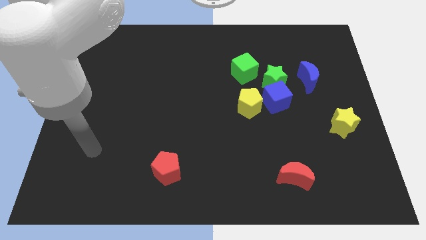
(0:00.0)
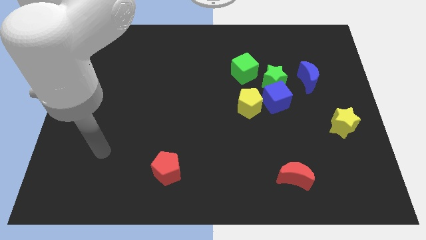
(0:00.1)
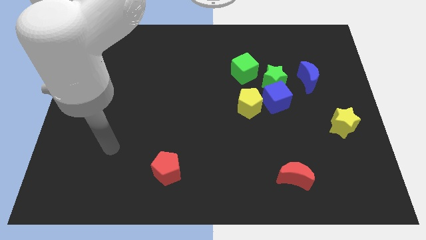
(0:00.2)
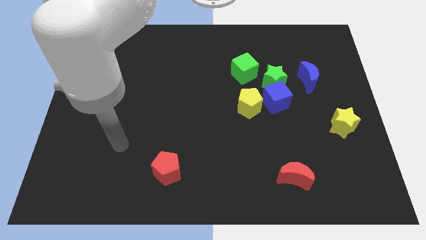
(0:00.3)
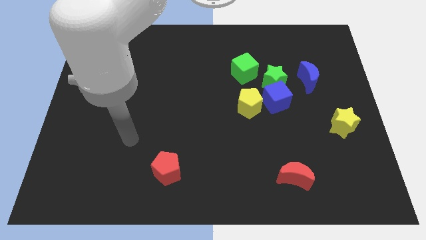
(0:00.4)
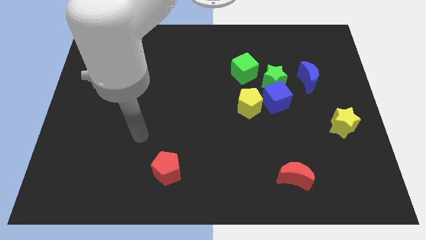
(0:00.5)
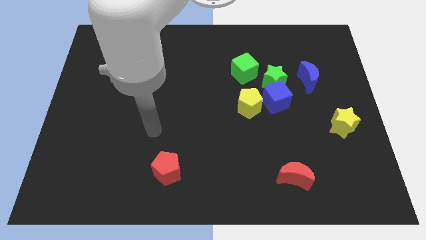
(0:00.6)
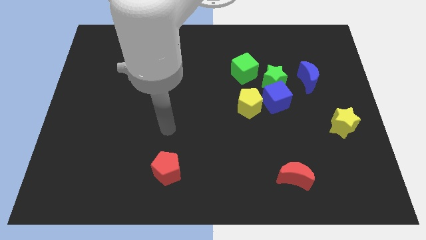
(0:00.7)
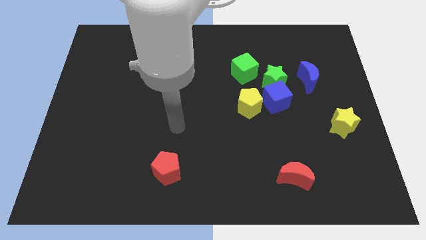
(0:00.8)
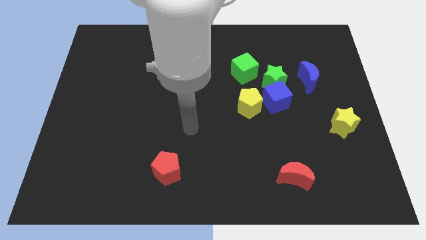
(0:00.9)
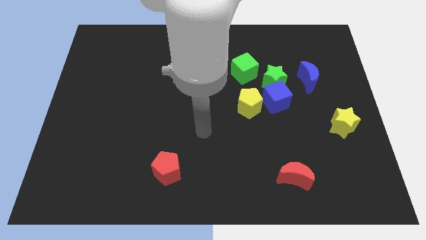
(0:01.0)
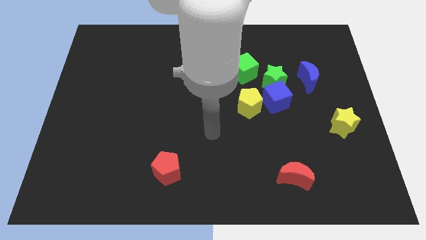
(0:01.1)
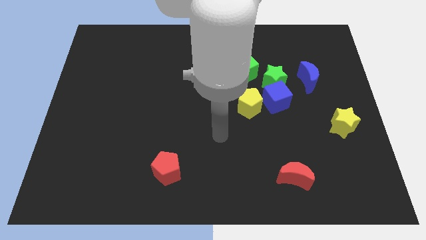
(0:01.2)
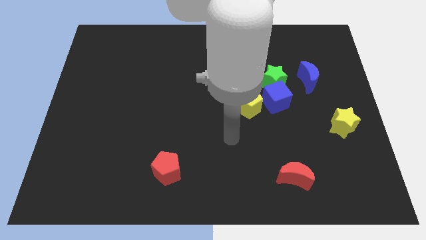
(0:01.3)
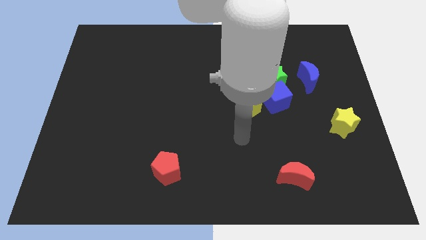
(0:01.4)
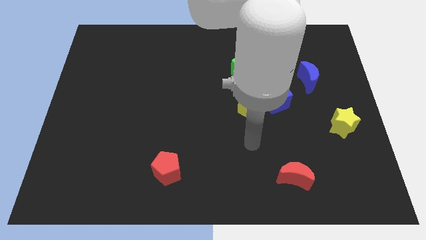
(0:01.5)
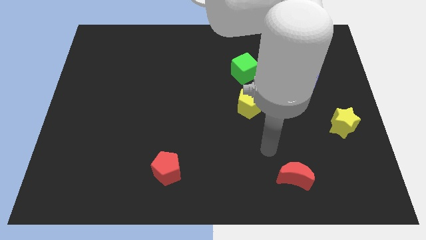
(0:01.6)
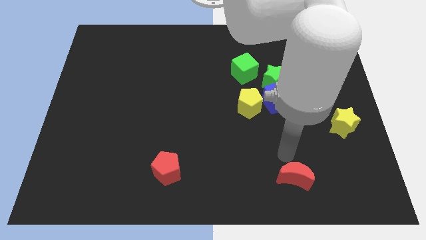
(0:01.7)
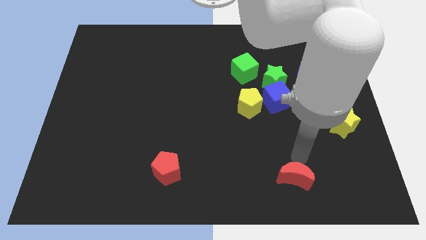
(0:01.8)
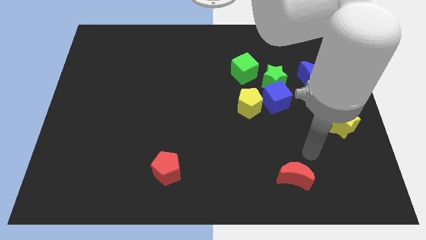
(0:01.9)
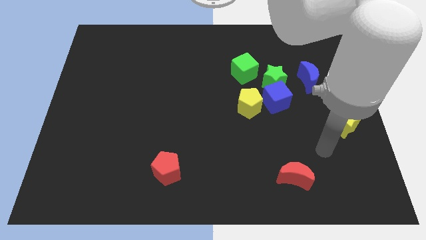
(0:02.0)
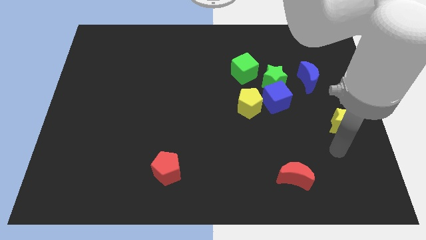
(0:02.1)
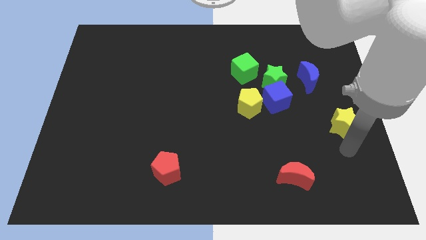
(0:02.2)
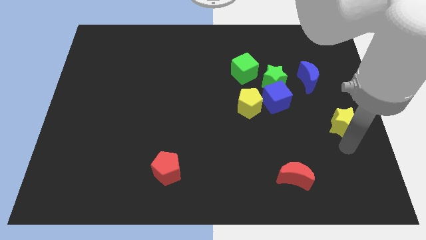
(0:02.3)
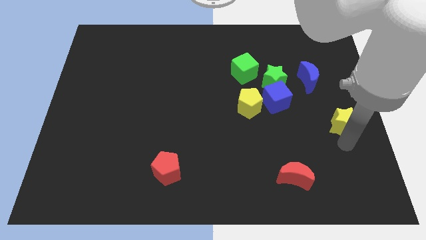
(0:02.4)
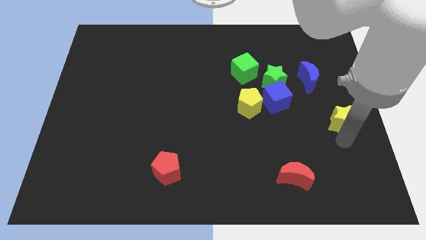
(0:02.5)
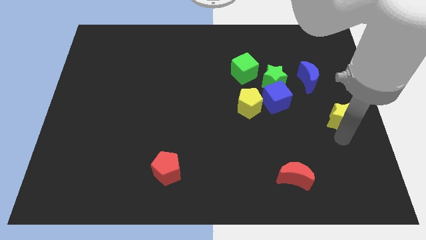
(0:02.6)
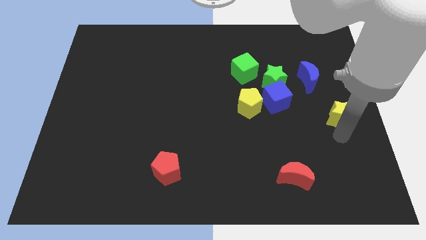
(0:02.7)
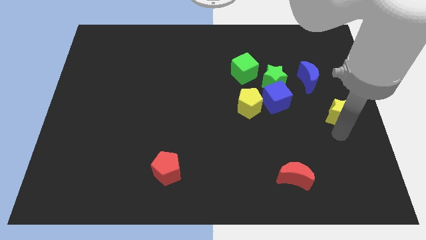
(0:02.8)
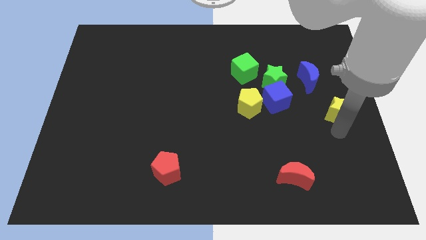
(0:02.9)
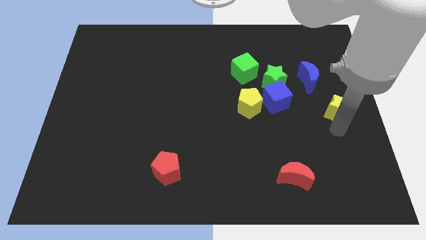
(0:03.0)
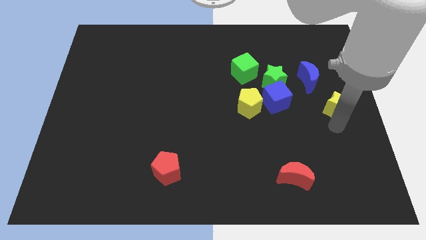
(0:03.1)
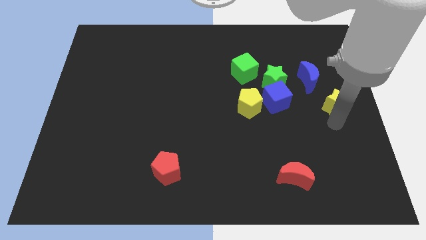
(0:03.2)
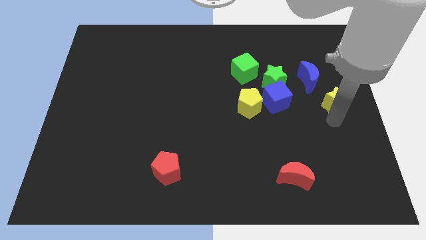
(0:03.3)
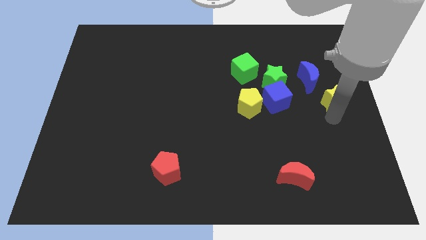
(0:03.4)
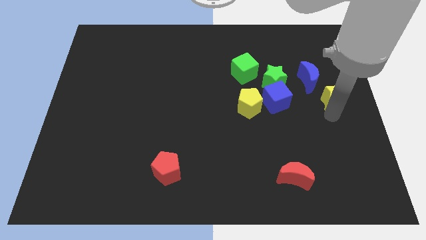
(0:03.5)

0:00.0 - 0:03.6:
slightly push the yellow star up

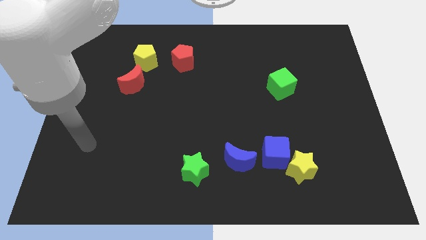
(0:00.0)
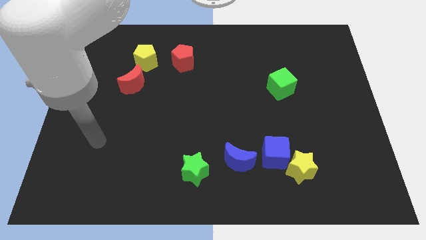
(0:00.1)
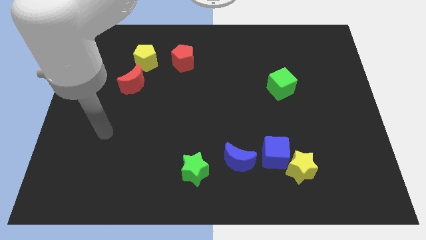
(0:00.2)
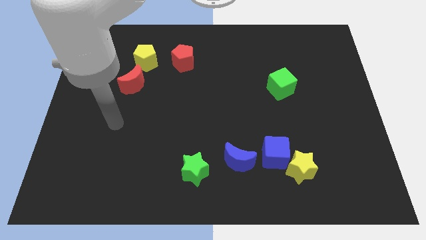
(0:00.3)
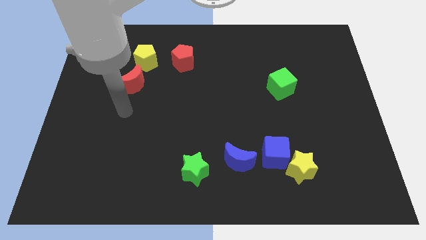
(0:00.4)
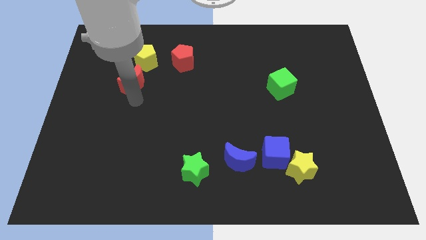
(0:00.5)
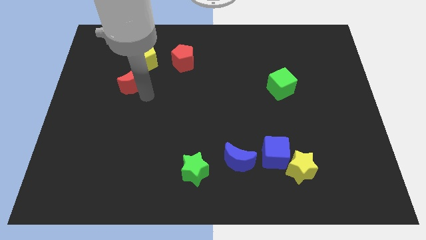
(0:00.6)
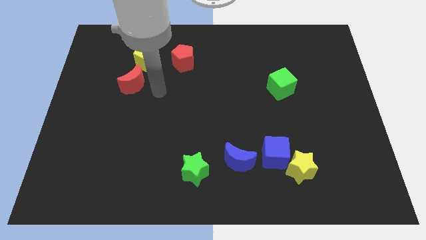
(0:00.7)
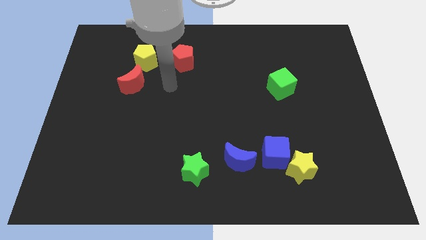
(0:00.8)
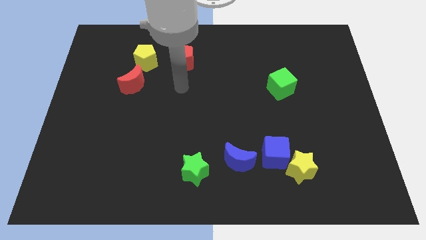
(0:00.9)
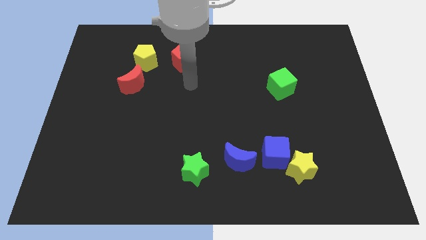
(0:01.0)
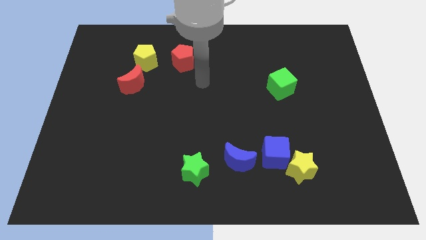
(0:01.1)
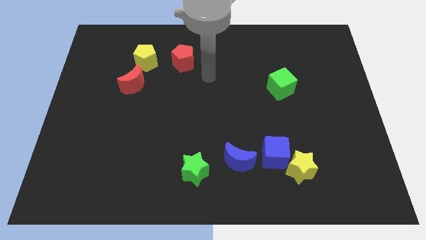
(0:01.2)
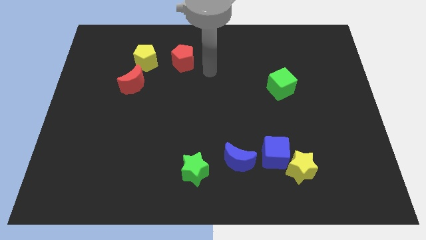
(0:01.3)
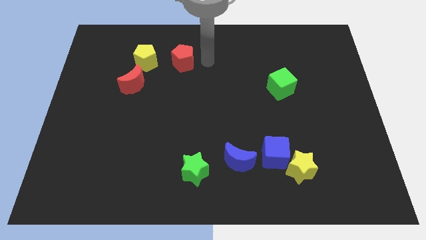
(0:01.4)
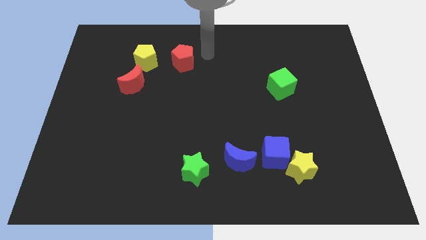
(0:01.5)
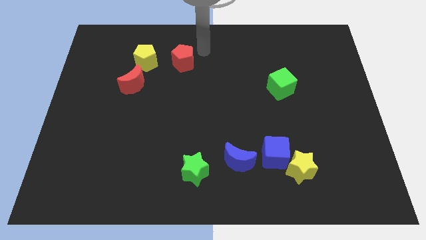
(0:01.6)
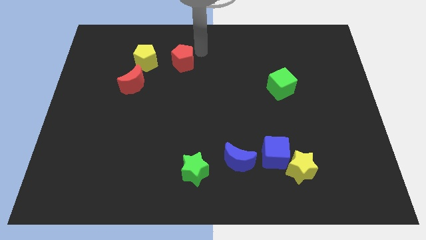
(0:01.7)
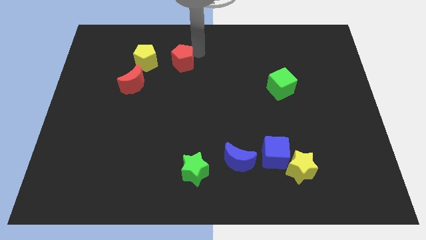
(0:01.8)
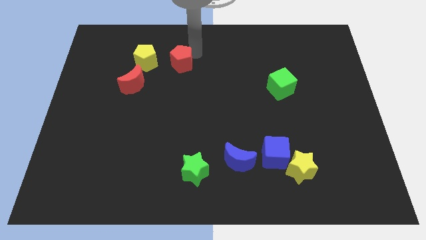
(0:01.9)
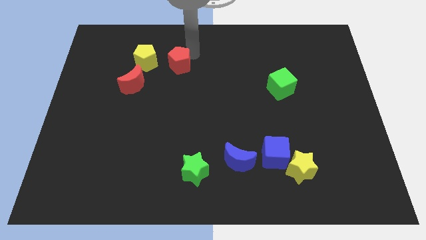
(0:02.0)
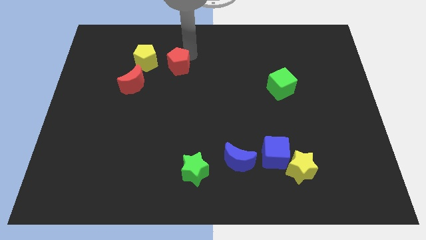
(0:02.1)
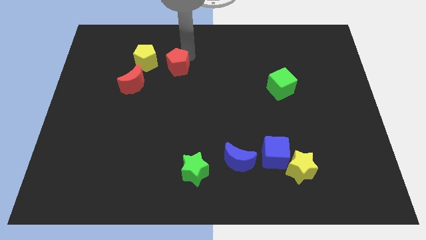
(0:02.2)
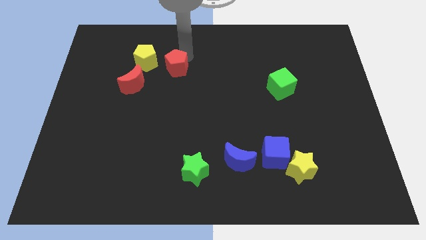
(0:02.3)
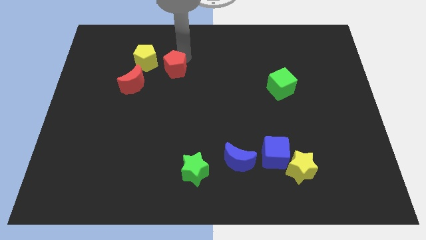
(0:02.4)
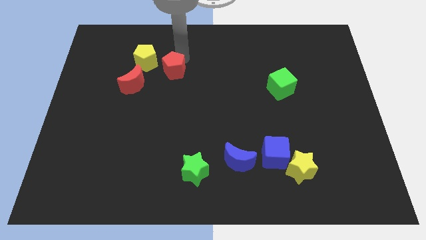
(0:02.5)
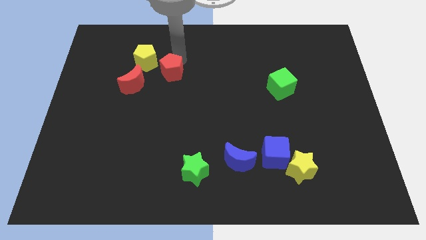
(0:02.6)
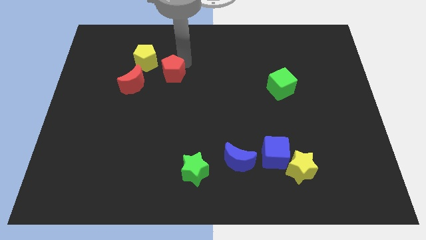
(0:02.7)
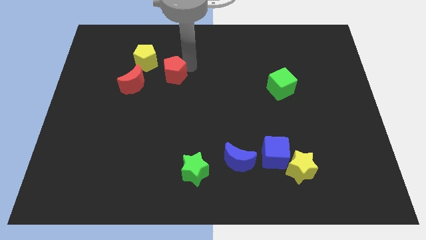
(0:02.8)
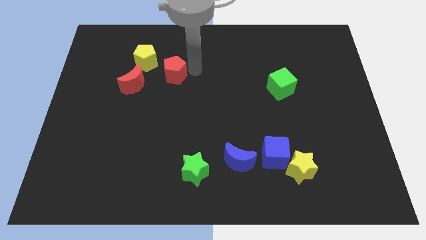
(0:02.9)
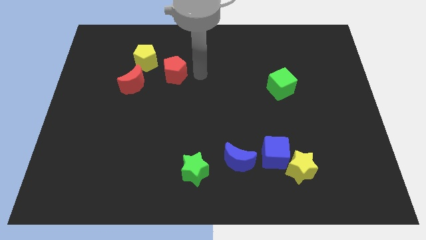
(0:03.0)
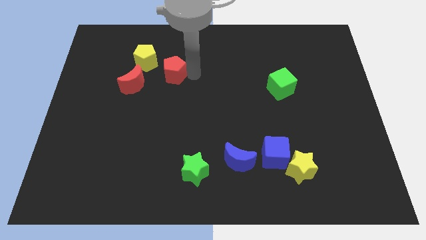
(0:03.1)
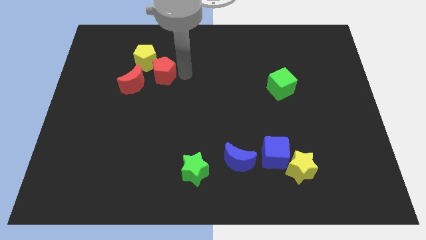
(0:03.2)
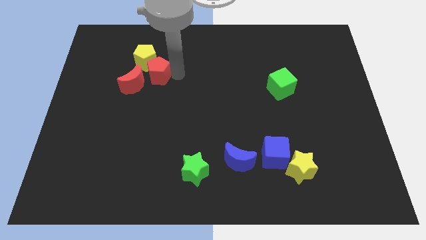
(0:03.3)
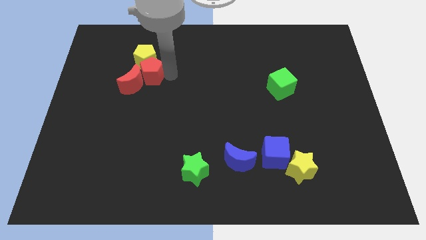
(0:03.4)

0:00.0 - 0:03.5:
push the red pentagon left slightly

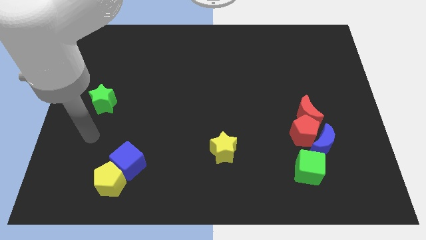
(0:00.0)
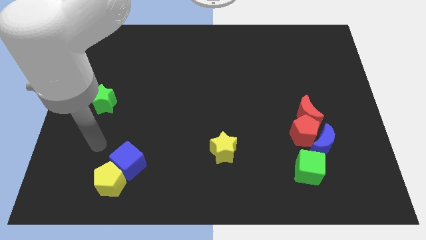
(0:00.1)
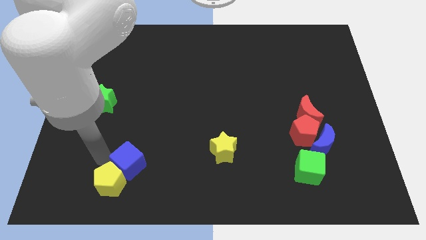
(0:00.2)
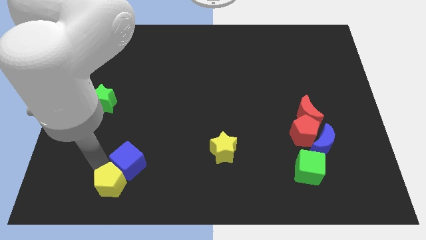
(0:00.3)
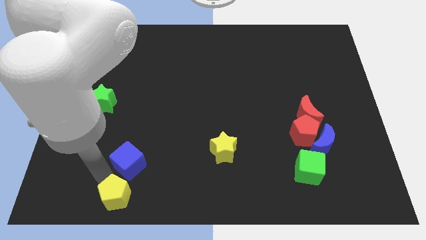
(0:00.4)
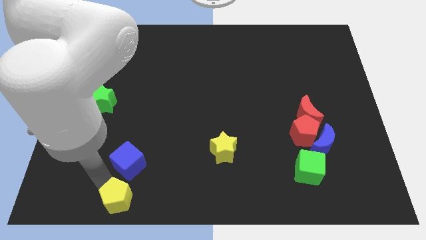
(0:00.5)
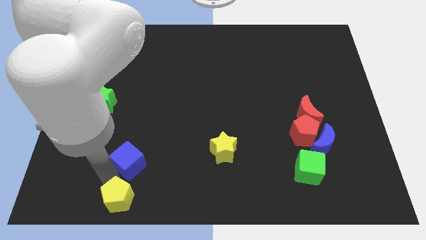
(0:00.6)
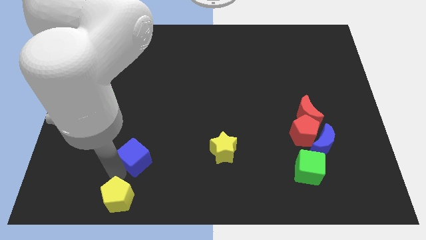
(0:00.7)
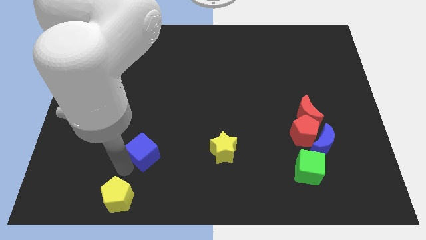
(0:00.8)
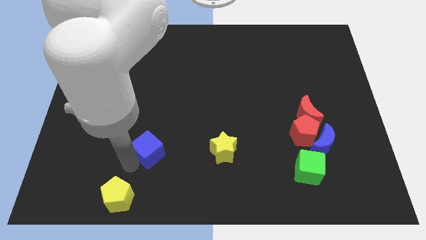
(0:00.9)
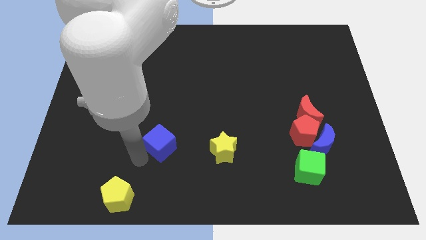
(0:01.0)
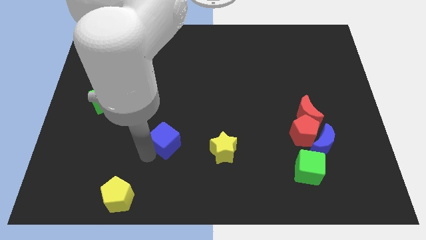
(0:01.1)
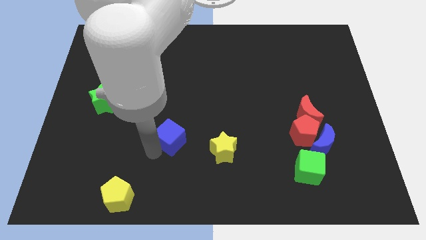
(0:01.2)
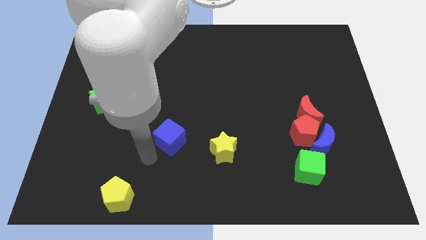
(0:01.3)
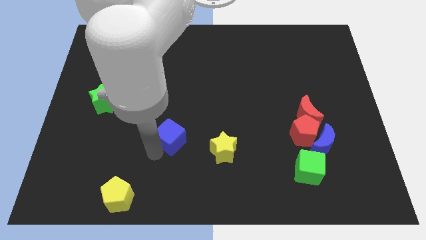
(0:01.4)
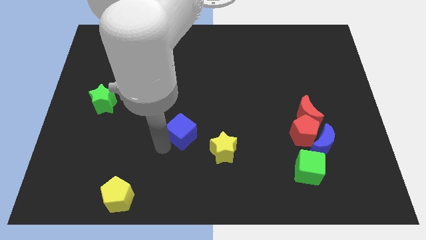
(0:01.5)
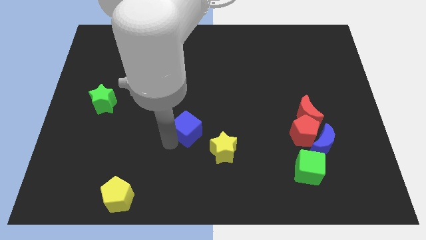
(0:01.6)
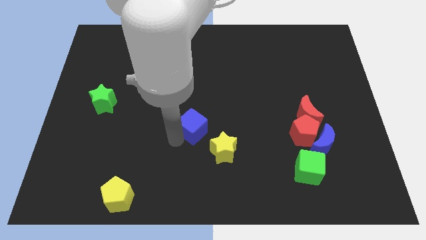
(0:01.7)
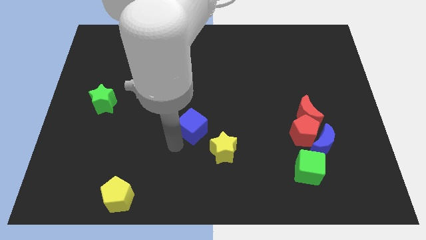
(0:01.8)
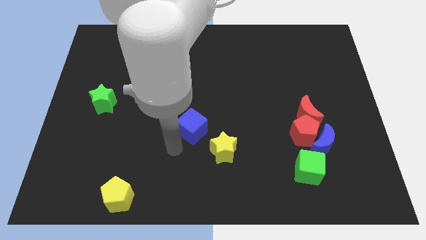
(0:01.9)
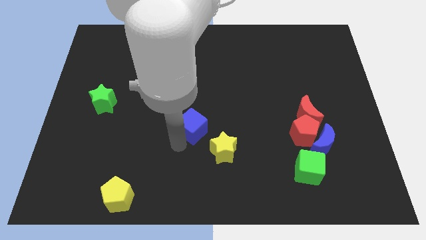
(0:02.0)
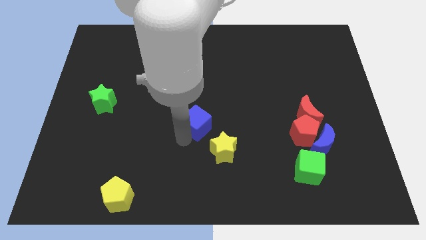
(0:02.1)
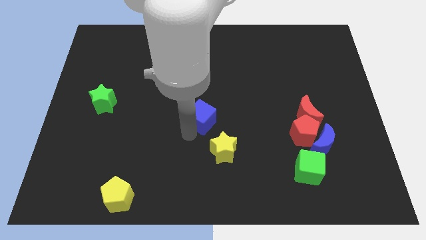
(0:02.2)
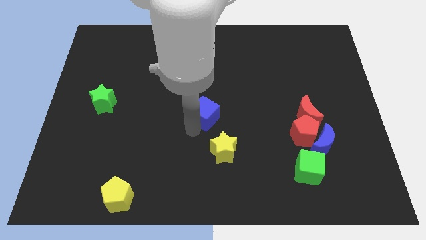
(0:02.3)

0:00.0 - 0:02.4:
slide the blue cube diagonally up and right
